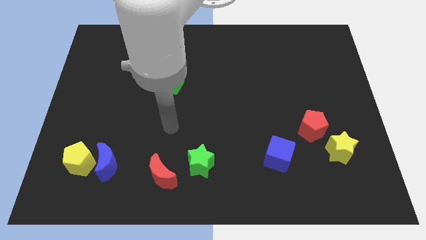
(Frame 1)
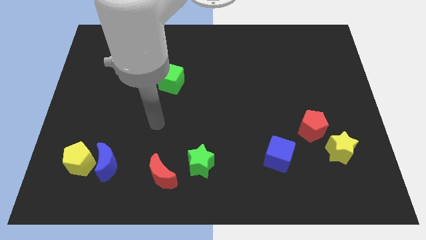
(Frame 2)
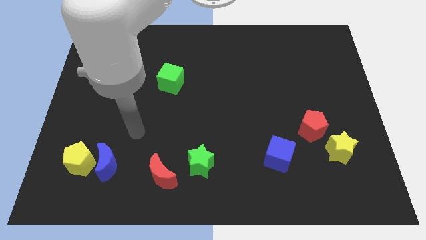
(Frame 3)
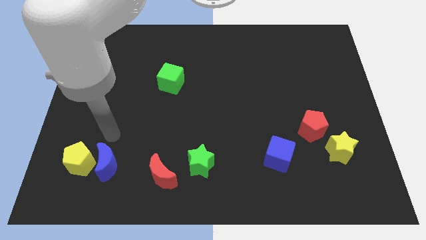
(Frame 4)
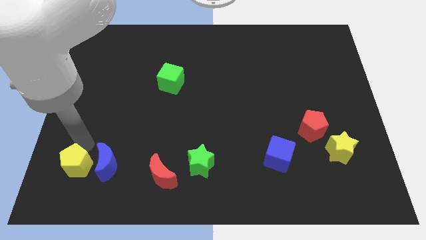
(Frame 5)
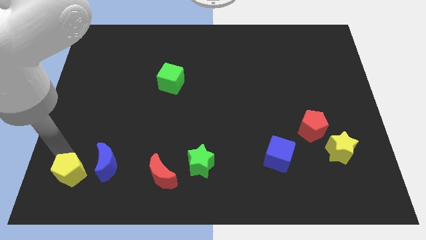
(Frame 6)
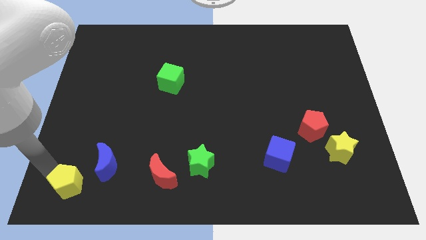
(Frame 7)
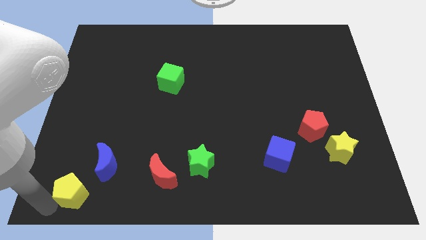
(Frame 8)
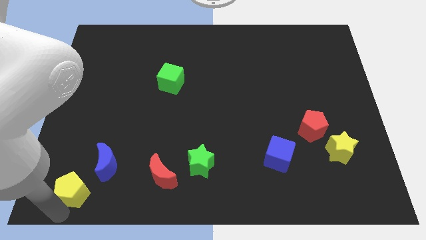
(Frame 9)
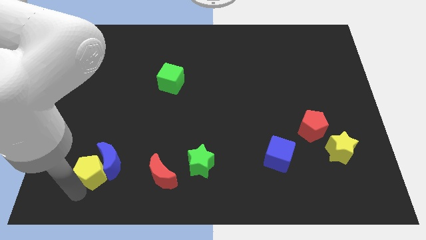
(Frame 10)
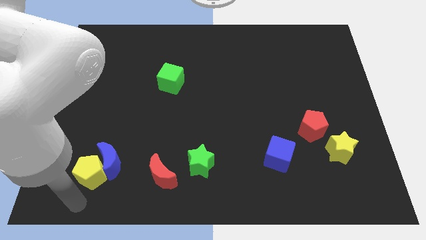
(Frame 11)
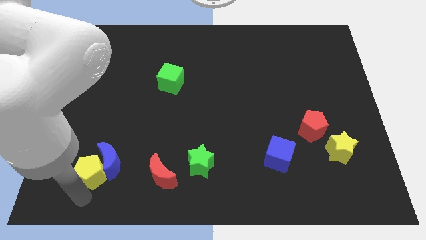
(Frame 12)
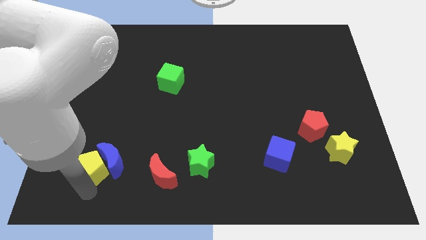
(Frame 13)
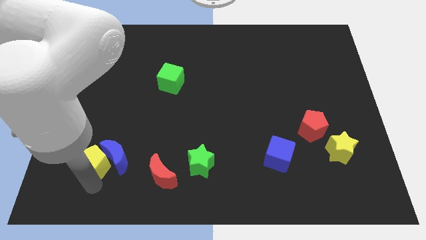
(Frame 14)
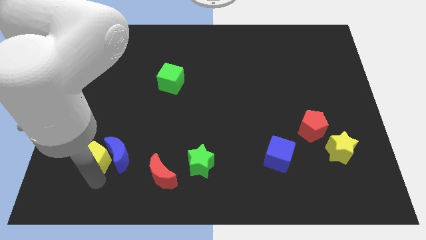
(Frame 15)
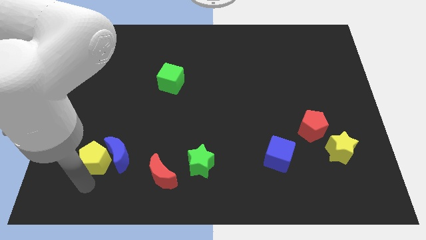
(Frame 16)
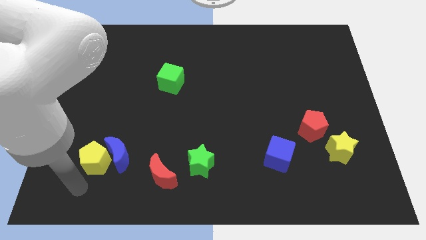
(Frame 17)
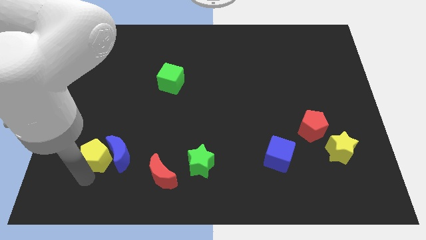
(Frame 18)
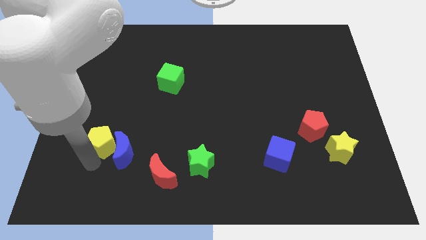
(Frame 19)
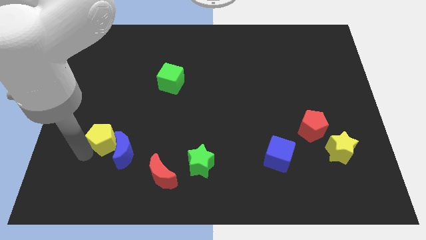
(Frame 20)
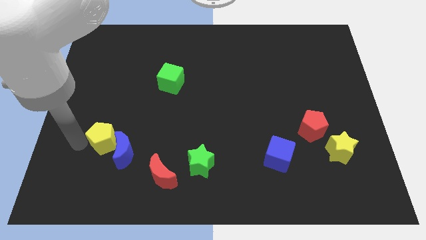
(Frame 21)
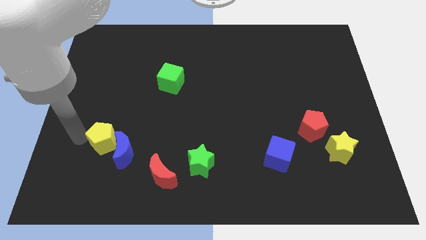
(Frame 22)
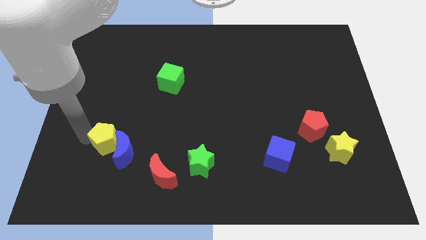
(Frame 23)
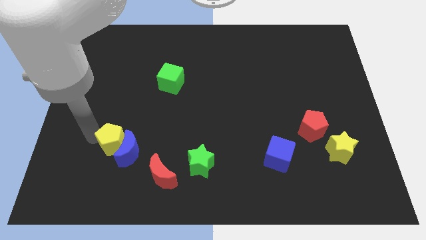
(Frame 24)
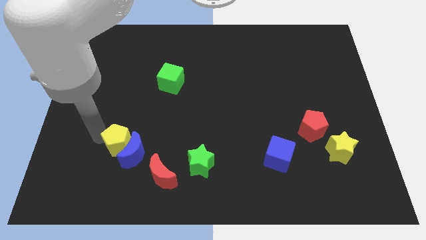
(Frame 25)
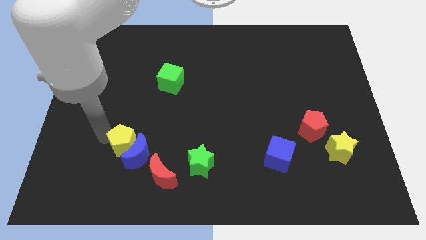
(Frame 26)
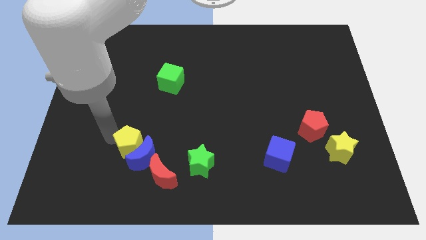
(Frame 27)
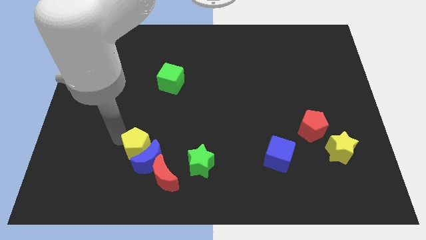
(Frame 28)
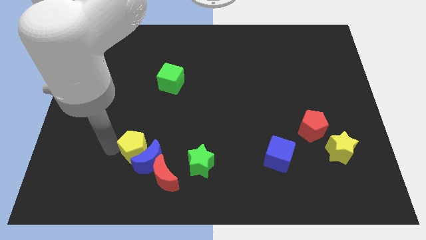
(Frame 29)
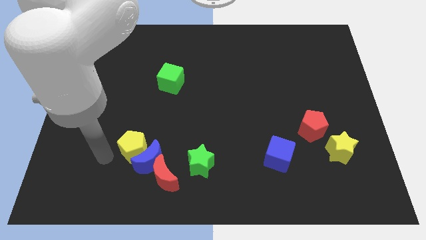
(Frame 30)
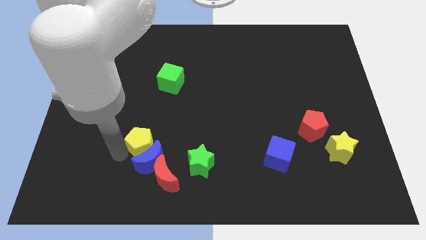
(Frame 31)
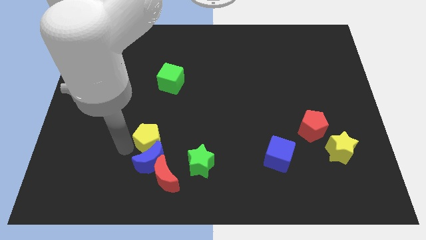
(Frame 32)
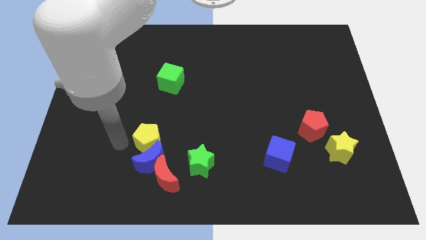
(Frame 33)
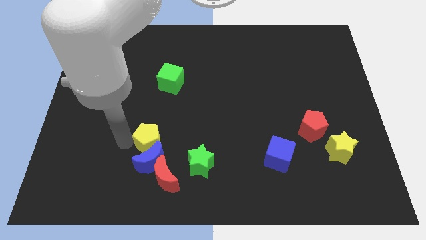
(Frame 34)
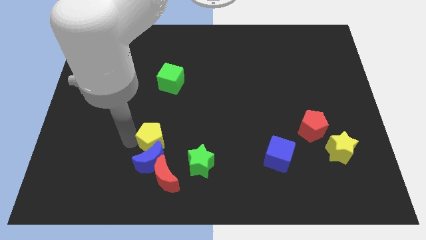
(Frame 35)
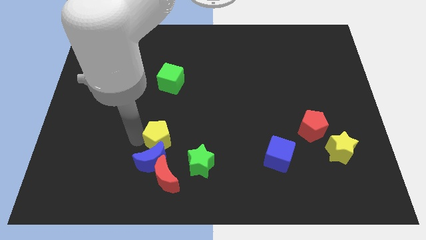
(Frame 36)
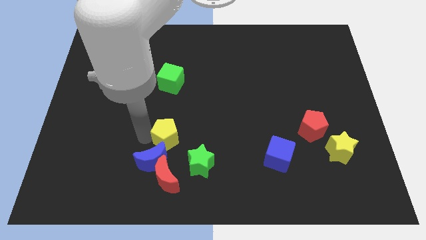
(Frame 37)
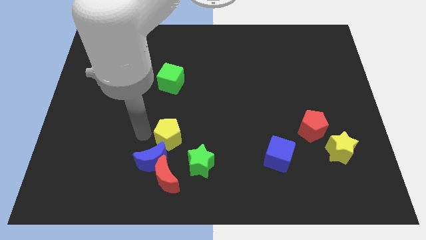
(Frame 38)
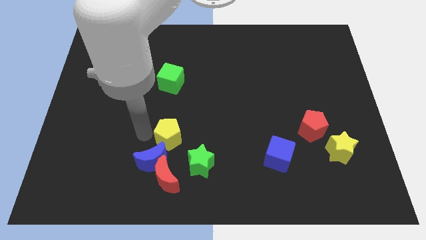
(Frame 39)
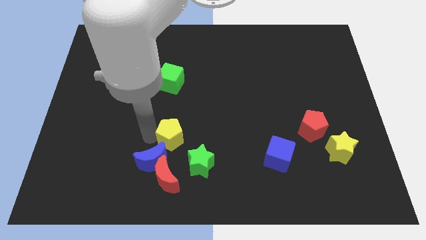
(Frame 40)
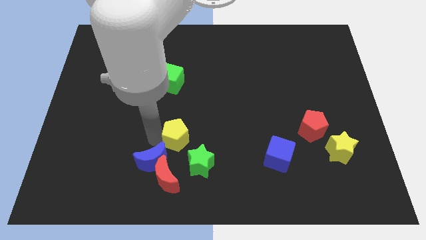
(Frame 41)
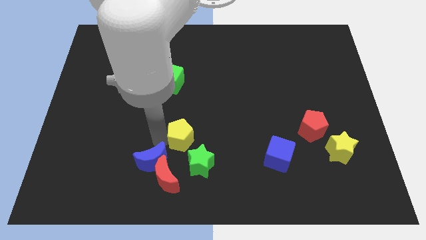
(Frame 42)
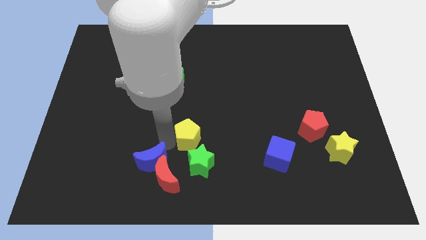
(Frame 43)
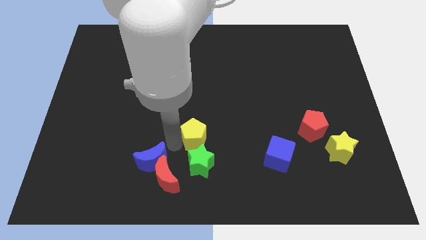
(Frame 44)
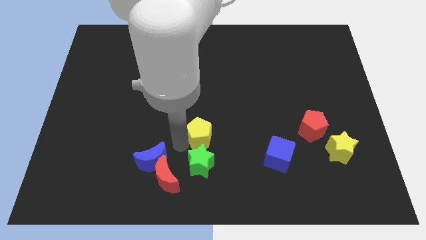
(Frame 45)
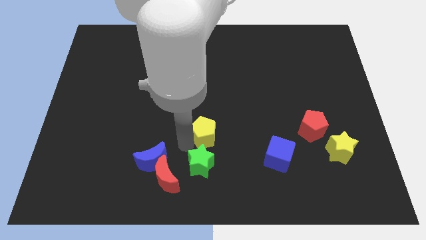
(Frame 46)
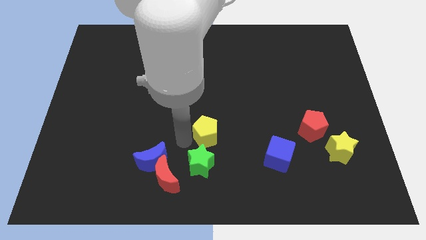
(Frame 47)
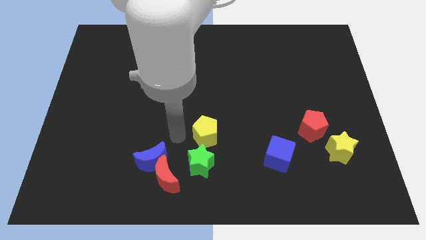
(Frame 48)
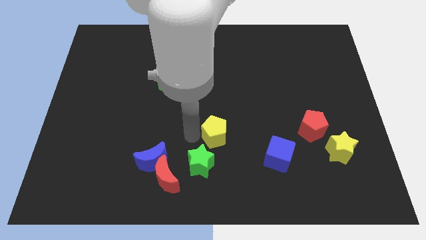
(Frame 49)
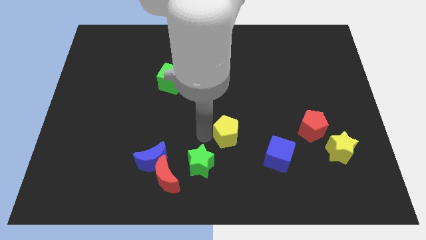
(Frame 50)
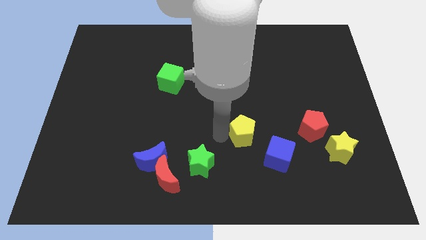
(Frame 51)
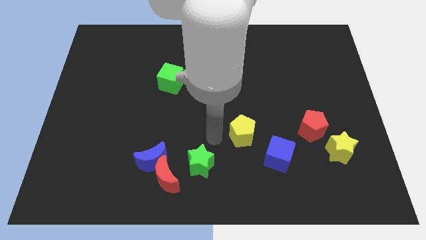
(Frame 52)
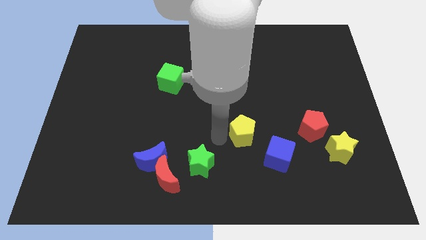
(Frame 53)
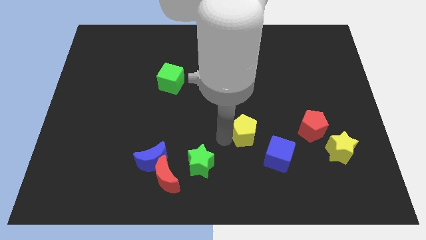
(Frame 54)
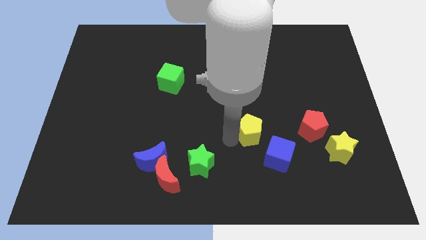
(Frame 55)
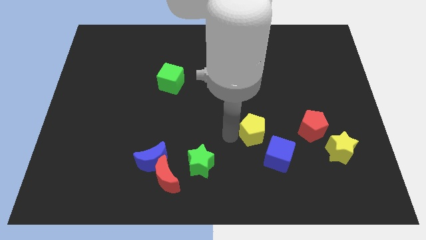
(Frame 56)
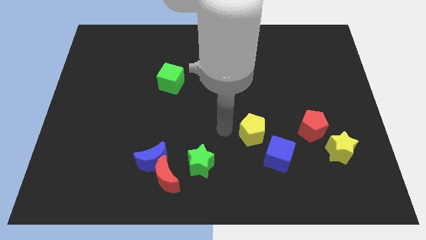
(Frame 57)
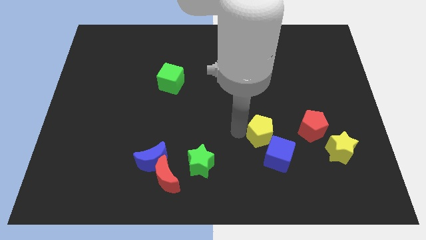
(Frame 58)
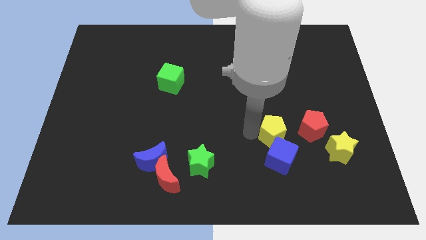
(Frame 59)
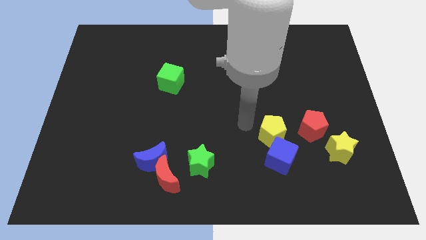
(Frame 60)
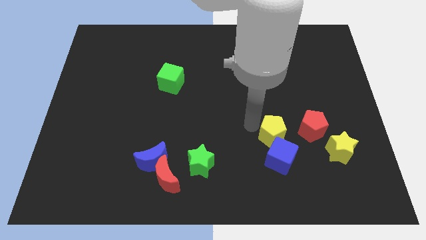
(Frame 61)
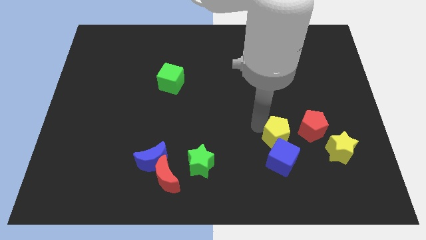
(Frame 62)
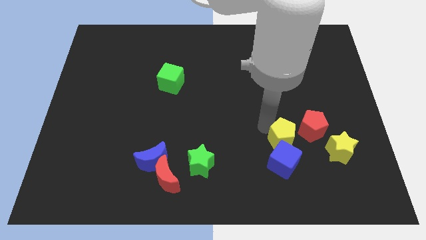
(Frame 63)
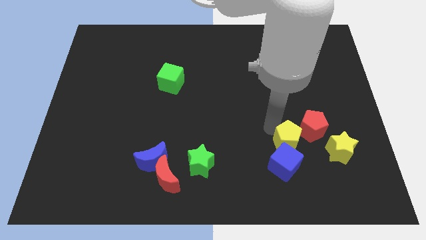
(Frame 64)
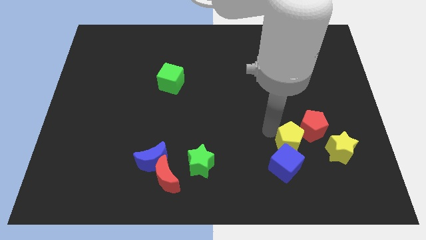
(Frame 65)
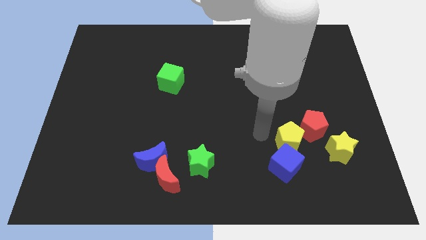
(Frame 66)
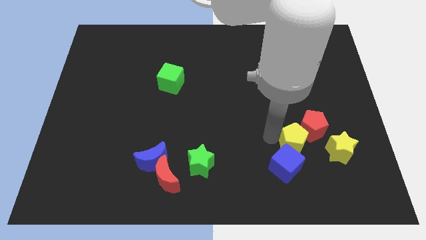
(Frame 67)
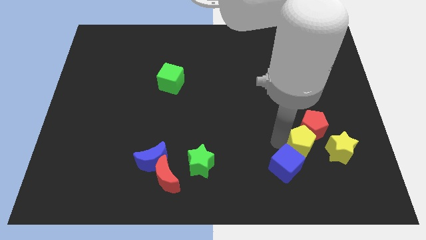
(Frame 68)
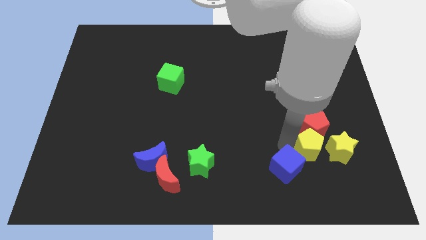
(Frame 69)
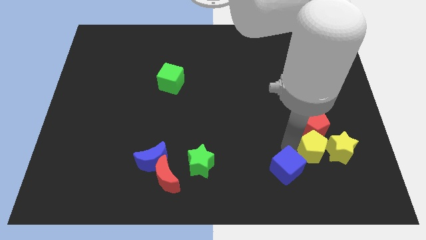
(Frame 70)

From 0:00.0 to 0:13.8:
move the yellow pentagon towards the yellow star

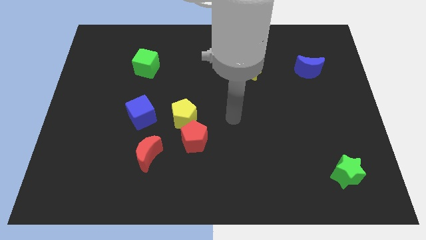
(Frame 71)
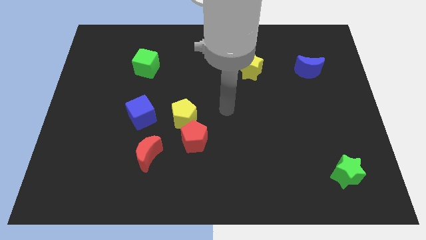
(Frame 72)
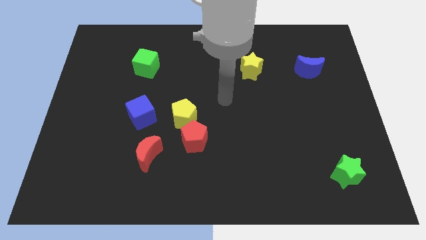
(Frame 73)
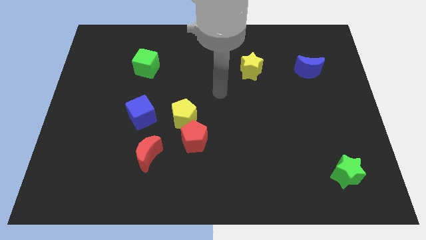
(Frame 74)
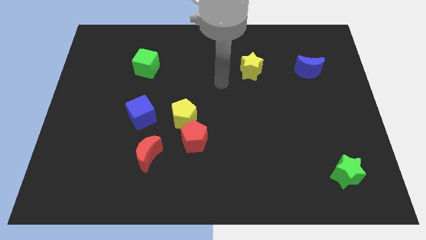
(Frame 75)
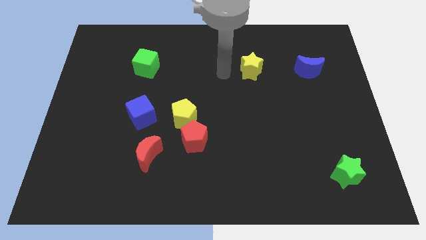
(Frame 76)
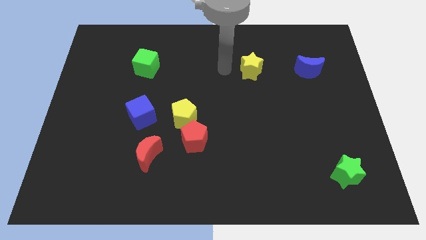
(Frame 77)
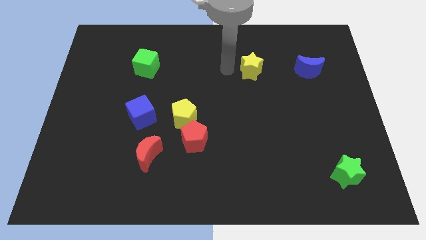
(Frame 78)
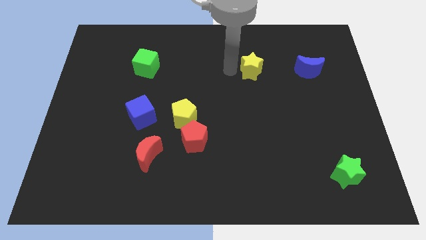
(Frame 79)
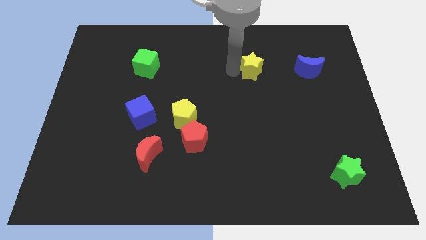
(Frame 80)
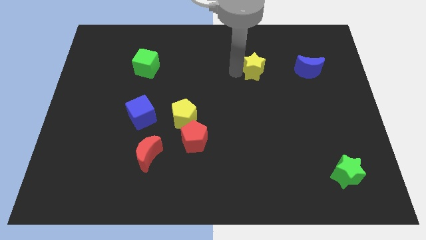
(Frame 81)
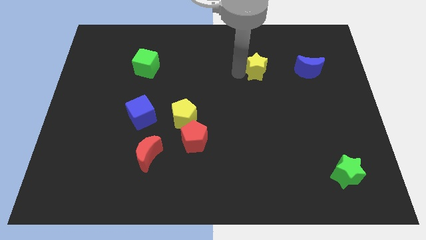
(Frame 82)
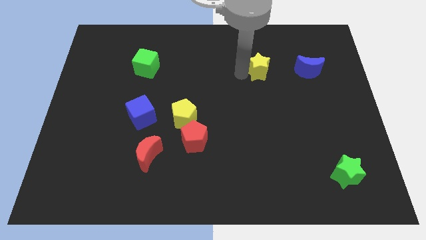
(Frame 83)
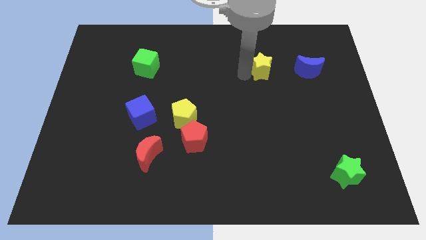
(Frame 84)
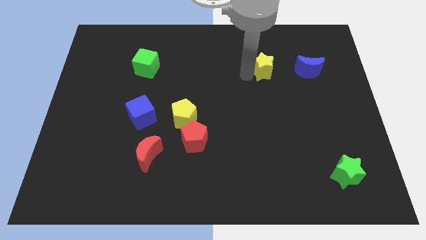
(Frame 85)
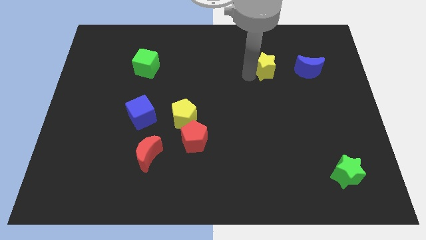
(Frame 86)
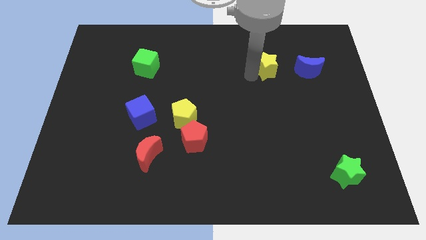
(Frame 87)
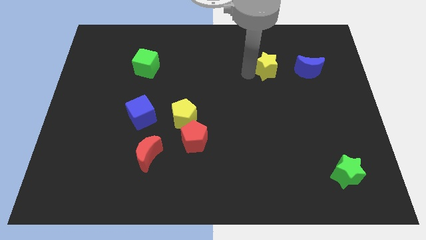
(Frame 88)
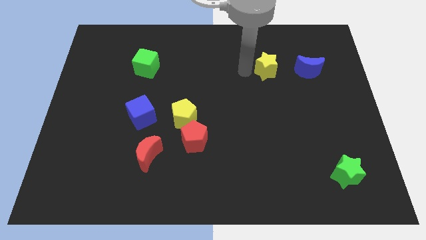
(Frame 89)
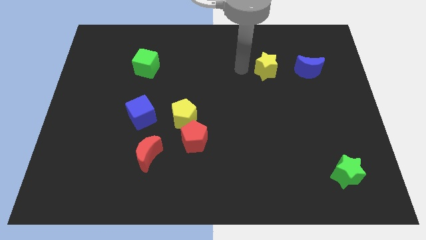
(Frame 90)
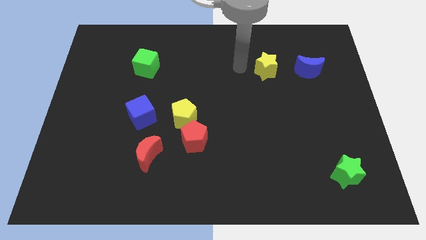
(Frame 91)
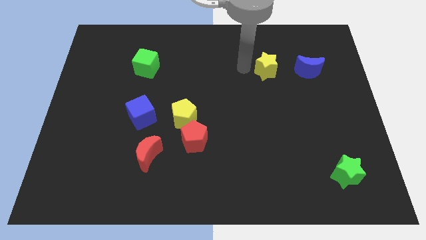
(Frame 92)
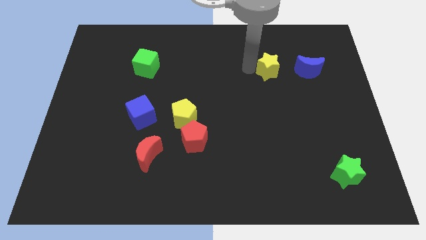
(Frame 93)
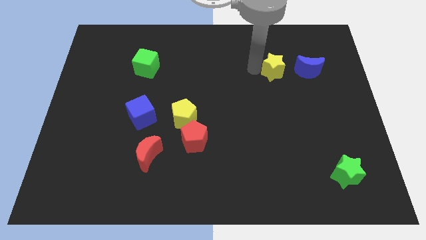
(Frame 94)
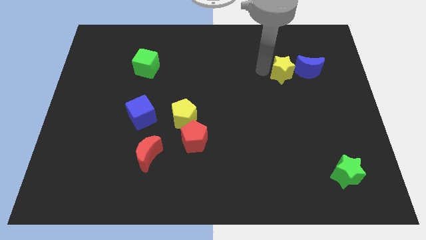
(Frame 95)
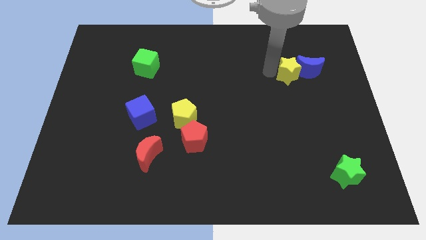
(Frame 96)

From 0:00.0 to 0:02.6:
push the yellow star close to the blue moon
